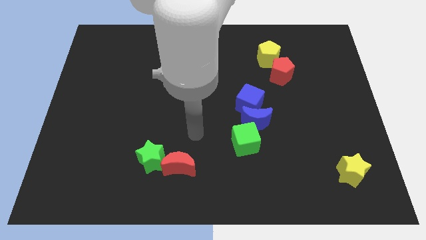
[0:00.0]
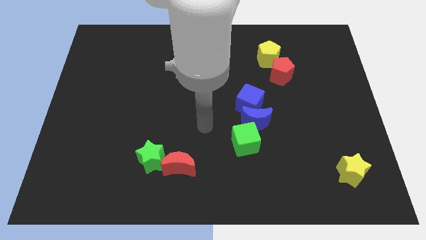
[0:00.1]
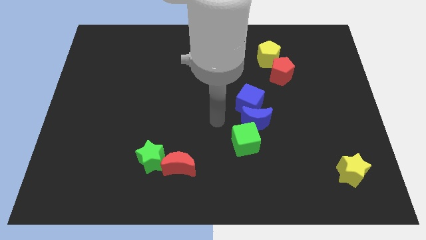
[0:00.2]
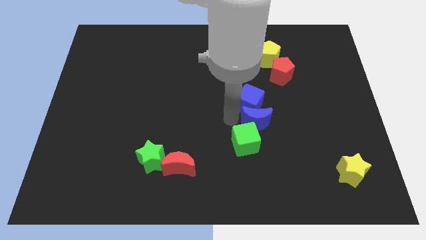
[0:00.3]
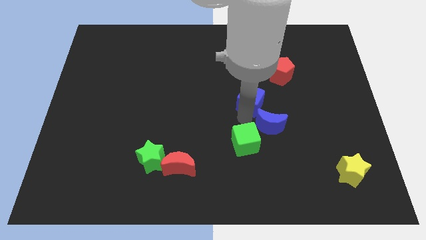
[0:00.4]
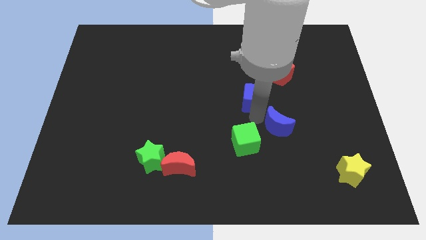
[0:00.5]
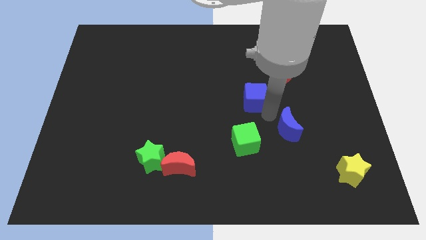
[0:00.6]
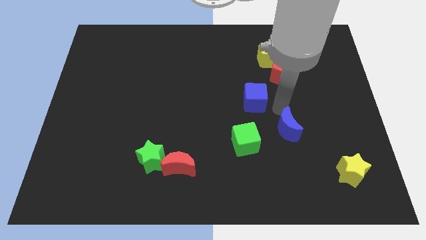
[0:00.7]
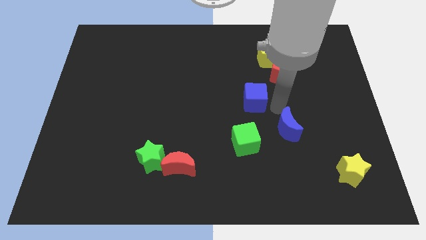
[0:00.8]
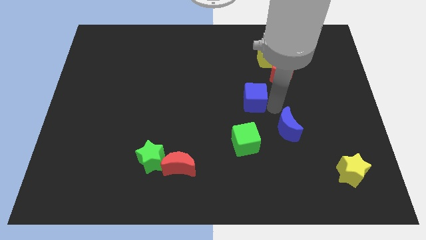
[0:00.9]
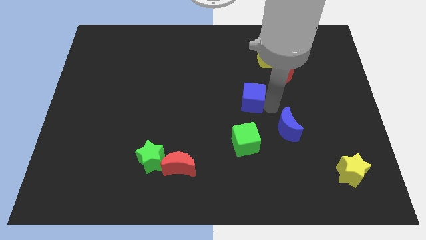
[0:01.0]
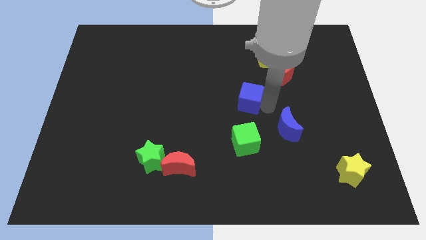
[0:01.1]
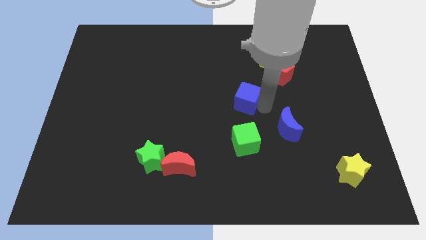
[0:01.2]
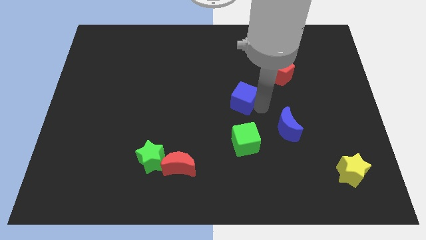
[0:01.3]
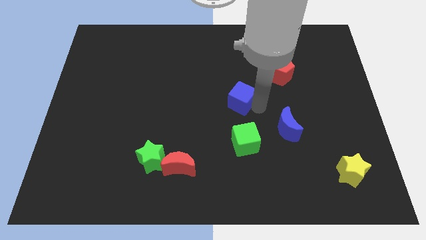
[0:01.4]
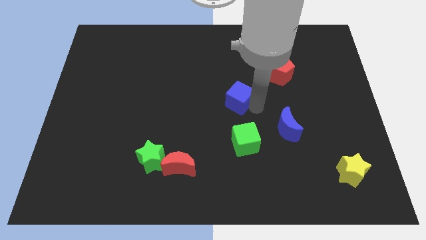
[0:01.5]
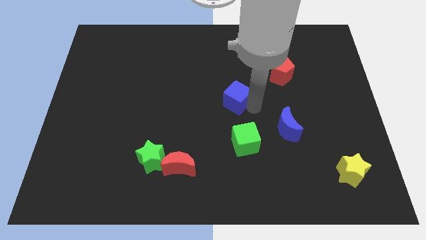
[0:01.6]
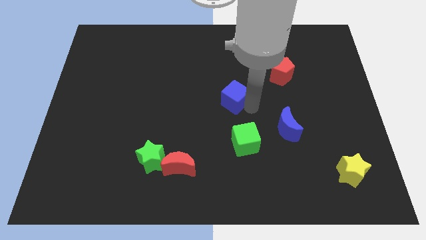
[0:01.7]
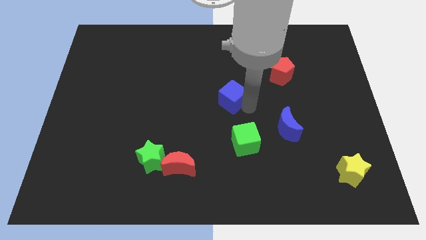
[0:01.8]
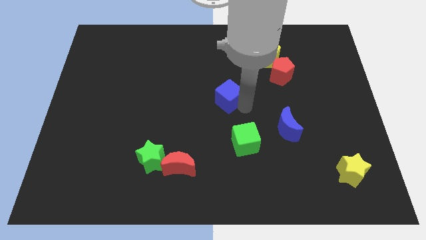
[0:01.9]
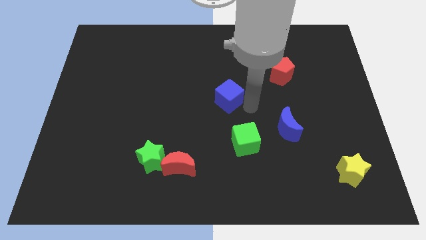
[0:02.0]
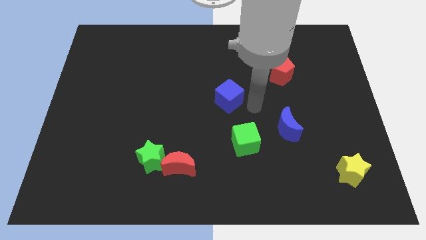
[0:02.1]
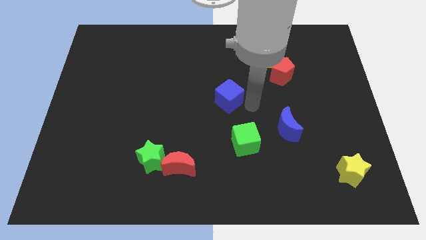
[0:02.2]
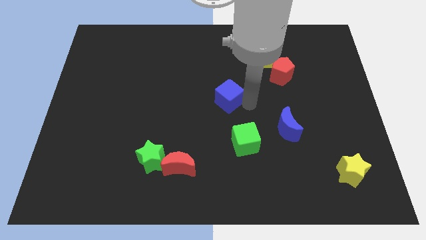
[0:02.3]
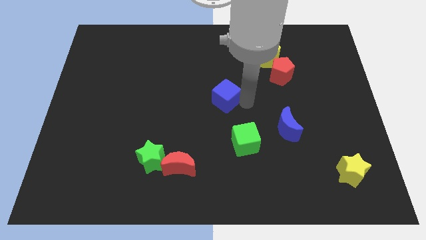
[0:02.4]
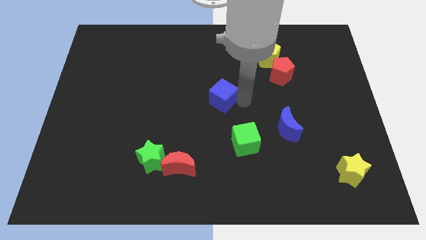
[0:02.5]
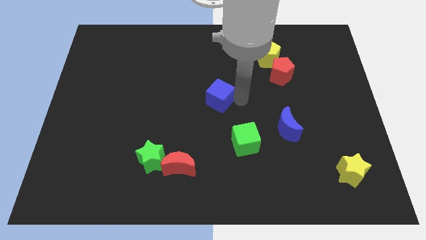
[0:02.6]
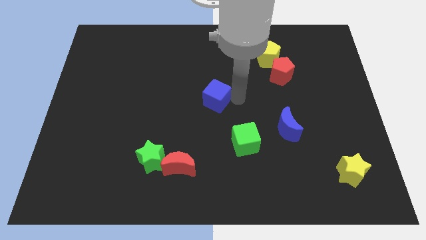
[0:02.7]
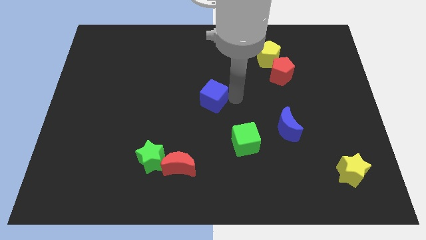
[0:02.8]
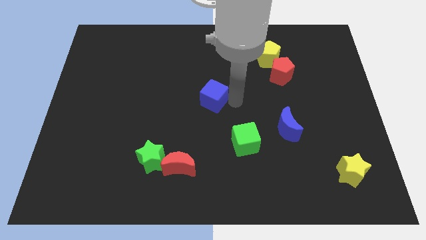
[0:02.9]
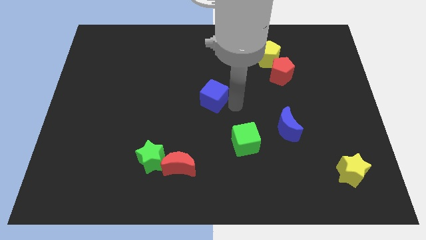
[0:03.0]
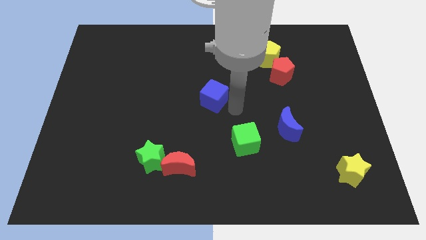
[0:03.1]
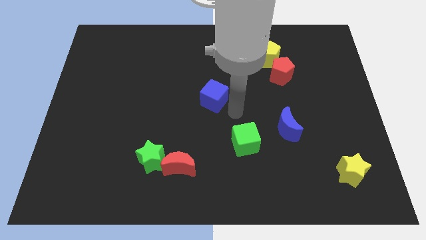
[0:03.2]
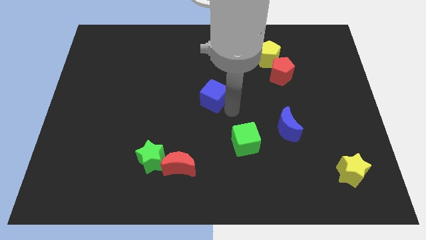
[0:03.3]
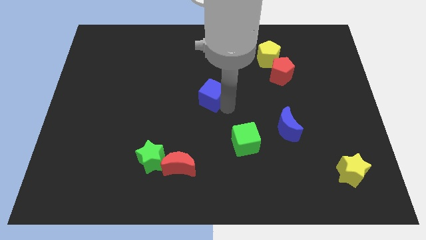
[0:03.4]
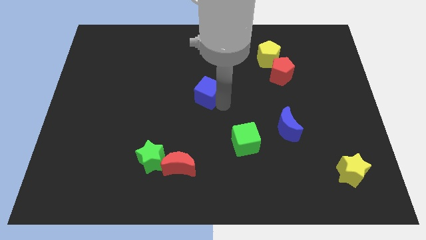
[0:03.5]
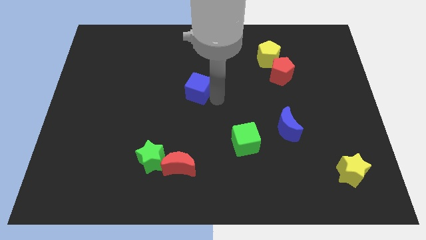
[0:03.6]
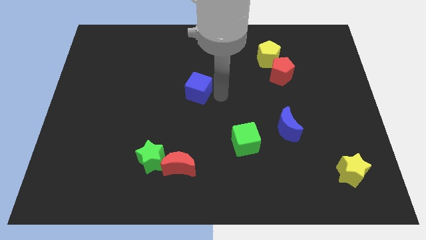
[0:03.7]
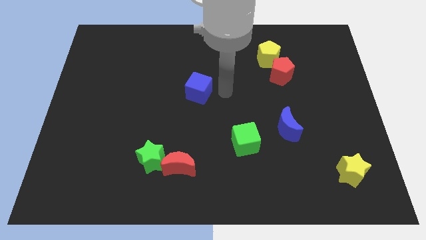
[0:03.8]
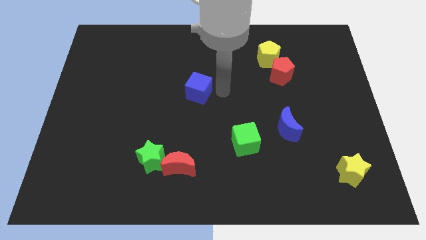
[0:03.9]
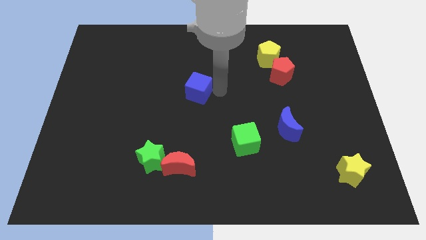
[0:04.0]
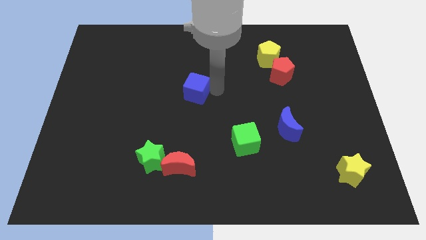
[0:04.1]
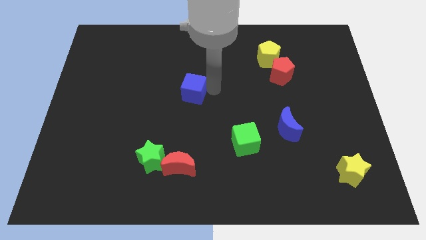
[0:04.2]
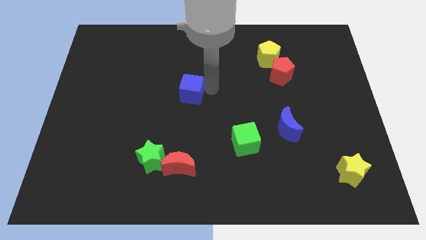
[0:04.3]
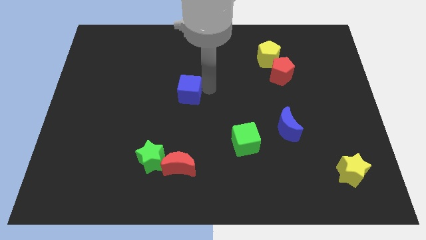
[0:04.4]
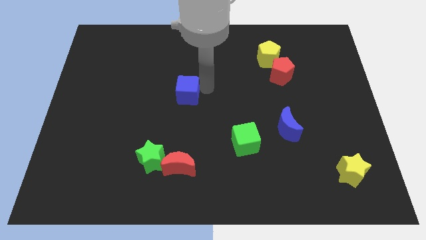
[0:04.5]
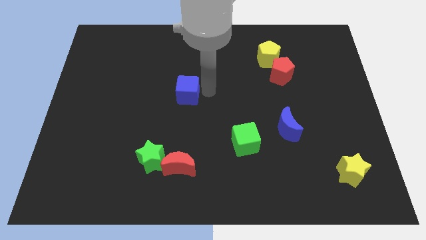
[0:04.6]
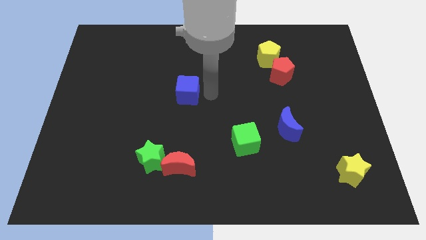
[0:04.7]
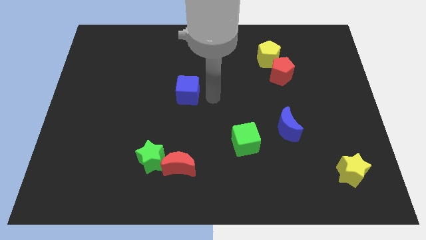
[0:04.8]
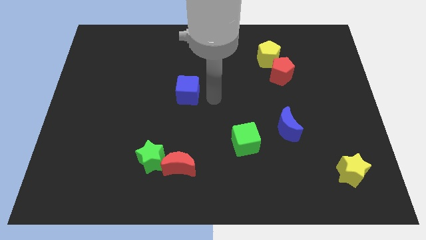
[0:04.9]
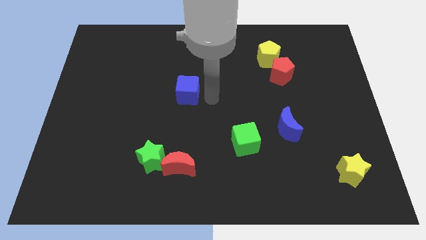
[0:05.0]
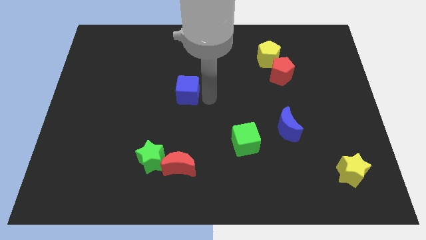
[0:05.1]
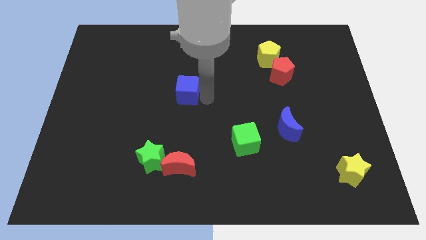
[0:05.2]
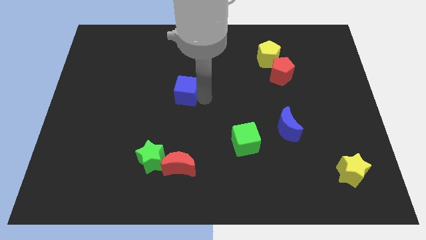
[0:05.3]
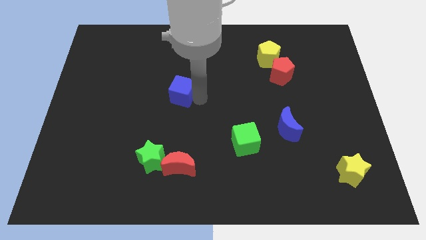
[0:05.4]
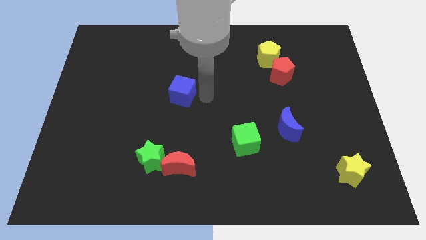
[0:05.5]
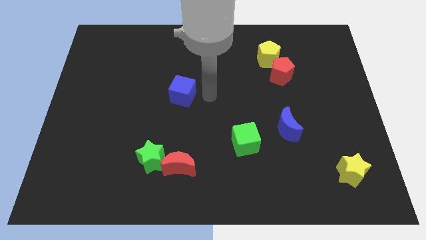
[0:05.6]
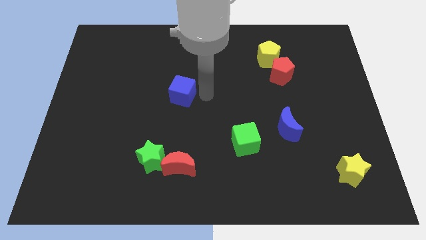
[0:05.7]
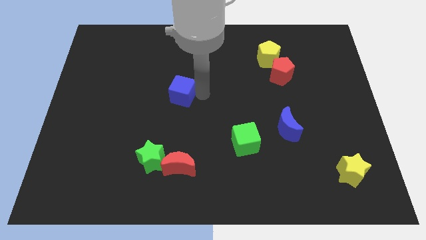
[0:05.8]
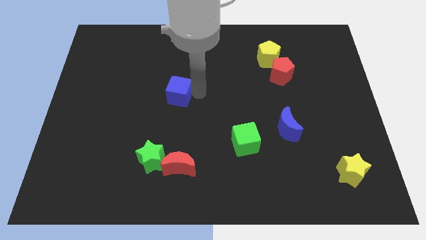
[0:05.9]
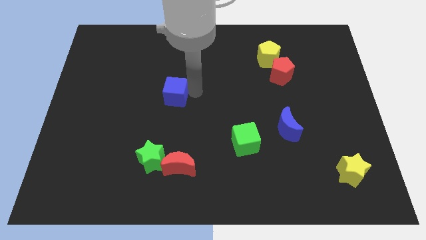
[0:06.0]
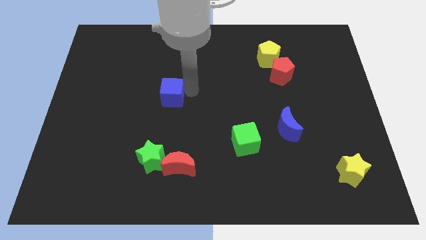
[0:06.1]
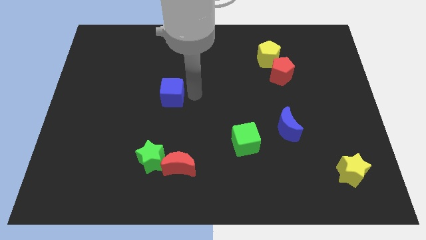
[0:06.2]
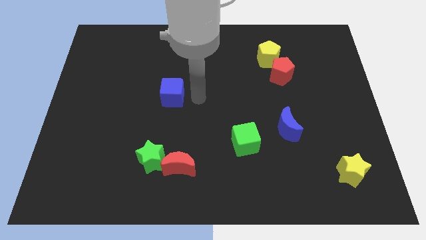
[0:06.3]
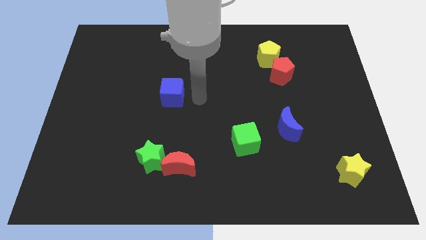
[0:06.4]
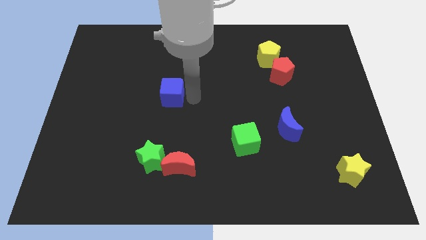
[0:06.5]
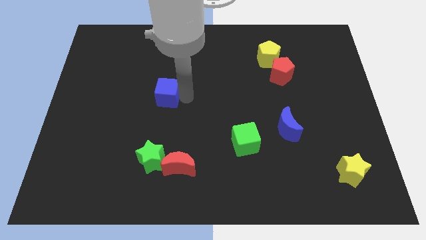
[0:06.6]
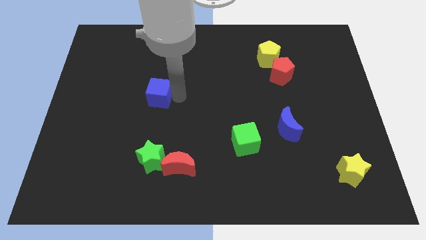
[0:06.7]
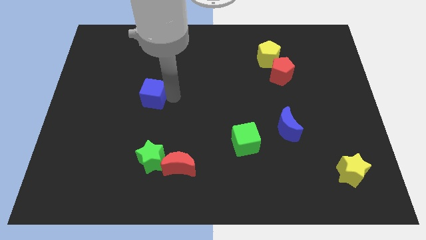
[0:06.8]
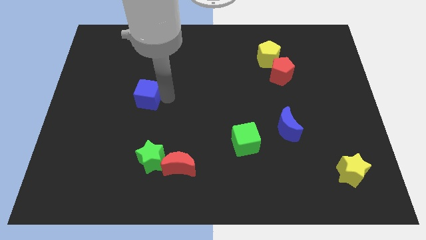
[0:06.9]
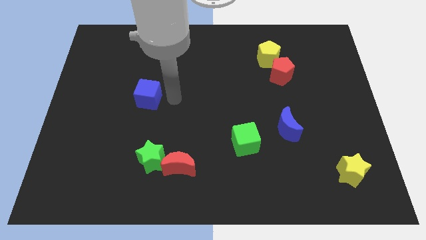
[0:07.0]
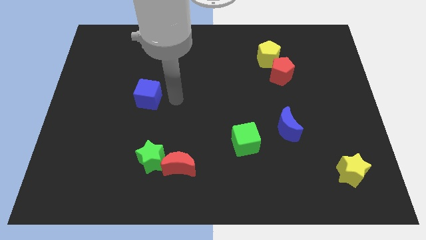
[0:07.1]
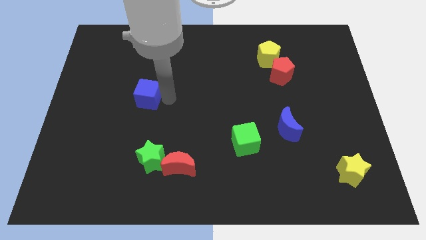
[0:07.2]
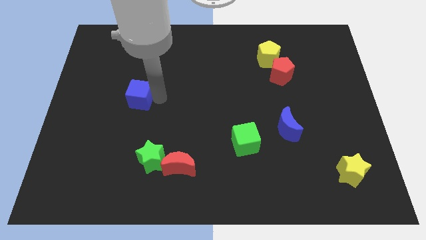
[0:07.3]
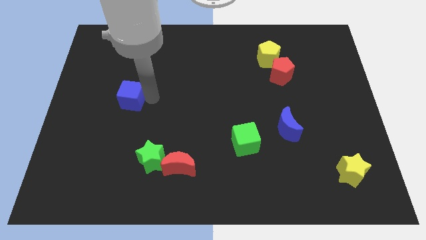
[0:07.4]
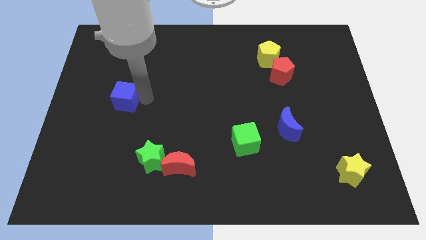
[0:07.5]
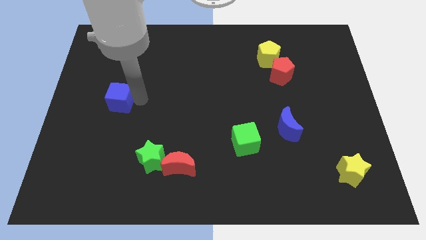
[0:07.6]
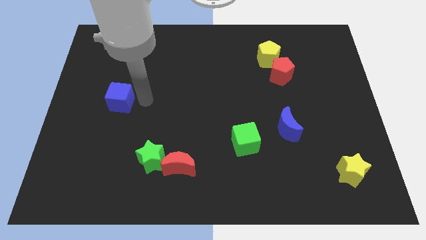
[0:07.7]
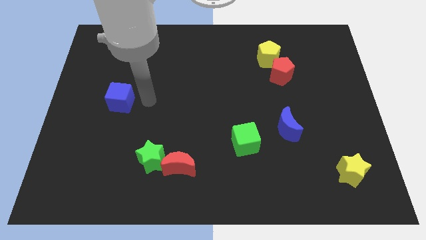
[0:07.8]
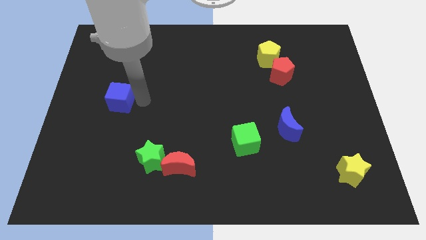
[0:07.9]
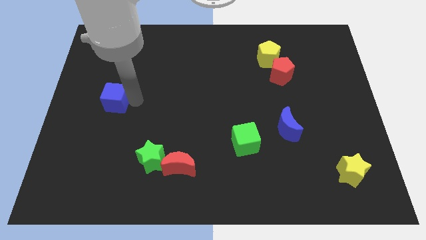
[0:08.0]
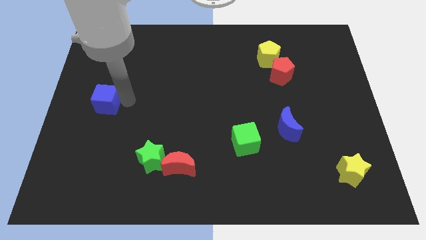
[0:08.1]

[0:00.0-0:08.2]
put the blue cube to the left side
